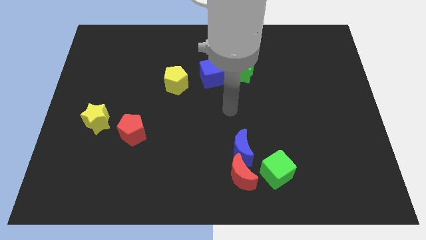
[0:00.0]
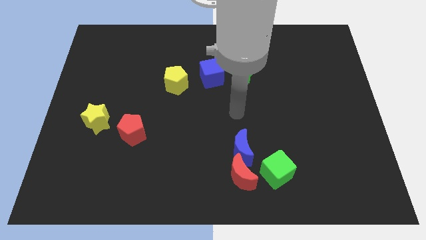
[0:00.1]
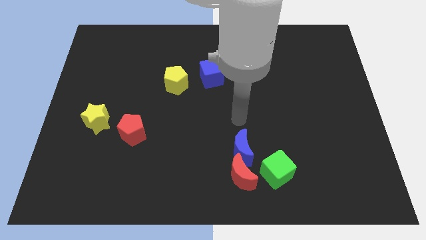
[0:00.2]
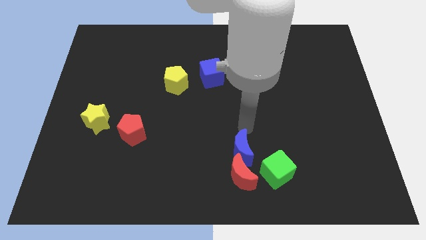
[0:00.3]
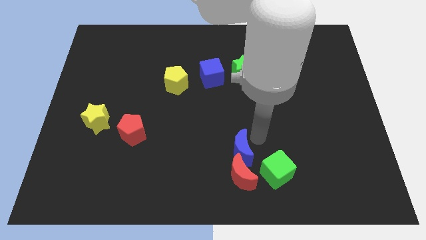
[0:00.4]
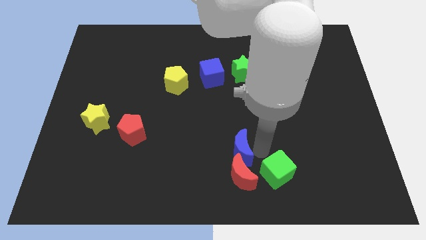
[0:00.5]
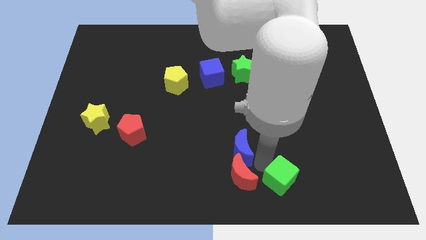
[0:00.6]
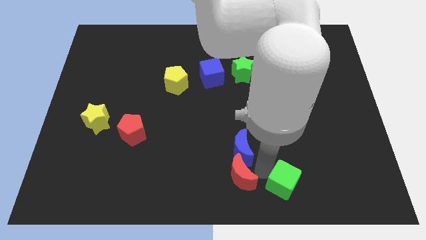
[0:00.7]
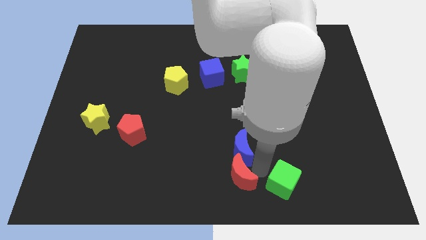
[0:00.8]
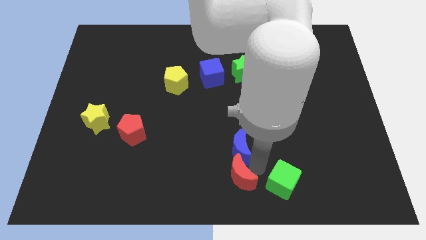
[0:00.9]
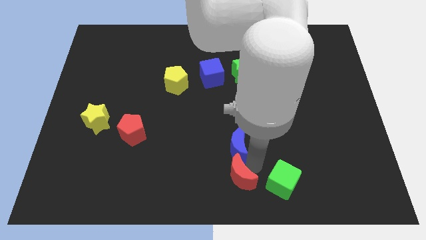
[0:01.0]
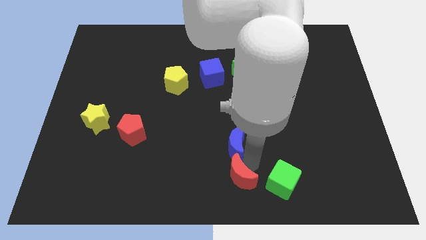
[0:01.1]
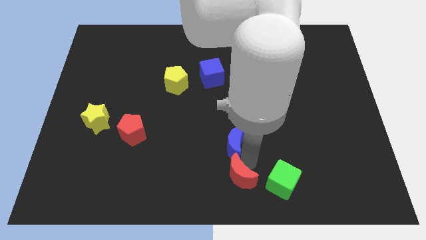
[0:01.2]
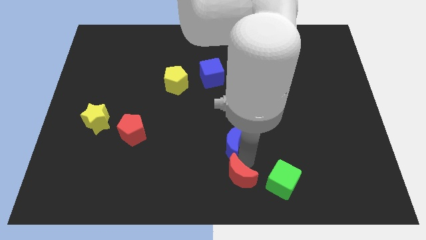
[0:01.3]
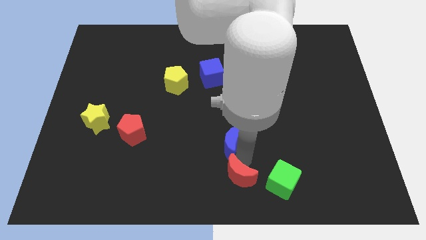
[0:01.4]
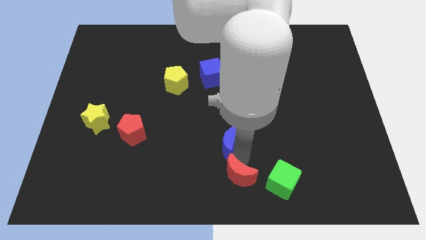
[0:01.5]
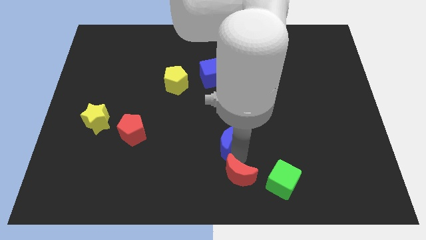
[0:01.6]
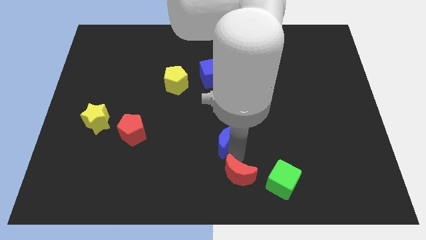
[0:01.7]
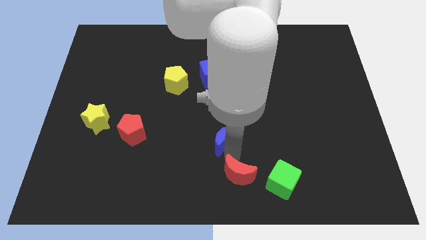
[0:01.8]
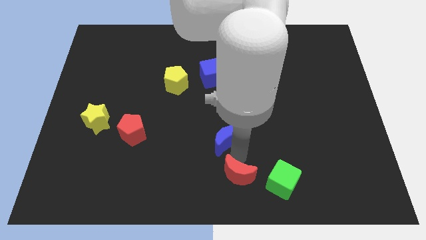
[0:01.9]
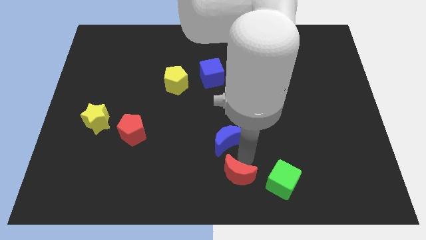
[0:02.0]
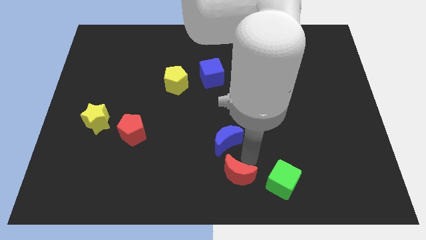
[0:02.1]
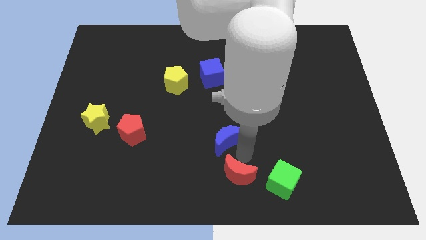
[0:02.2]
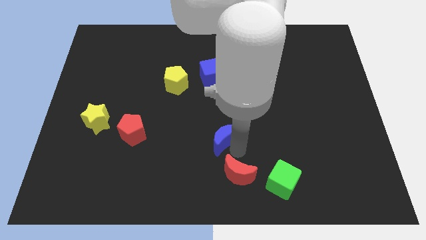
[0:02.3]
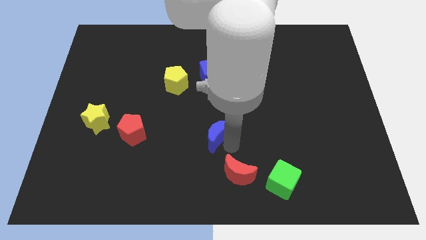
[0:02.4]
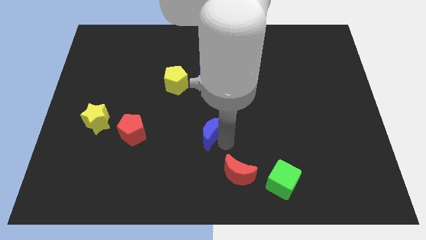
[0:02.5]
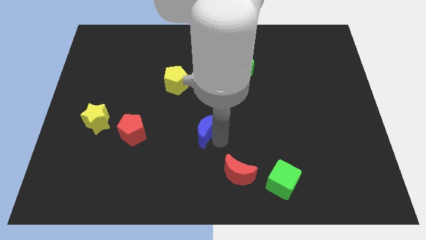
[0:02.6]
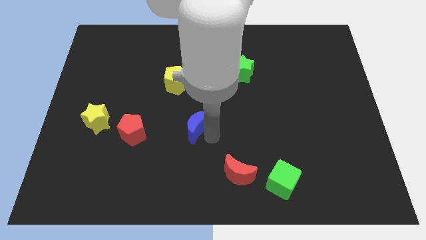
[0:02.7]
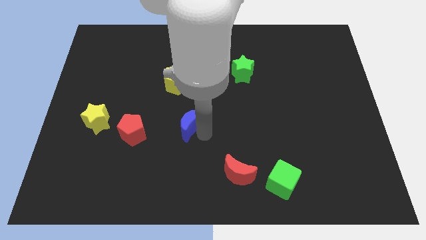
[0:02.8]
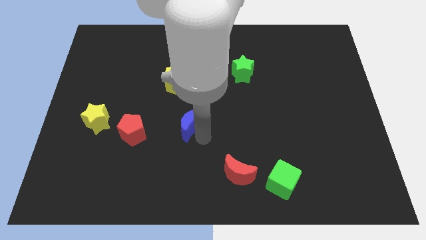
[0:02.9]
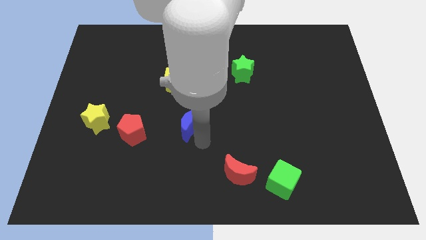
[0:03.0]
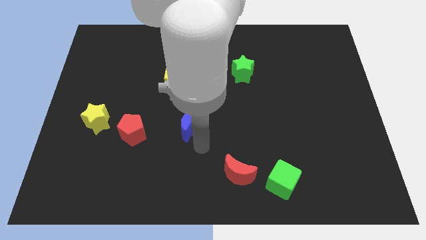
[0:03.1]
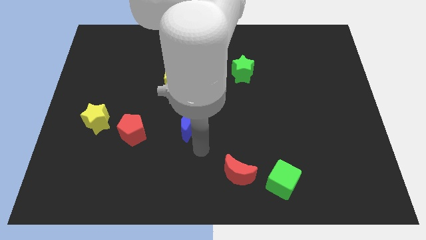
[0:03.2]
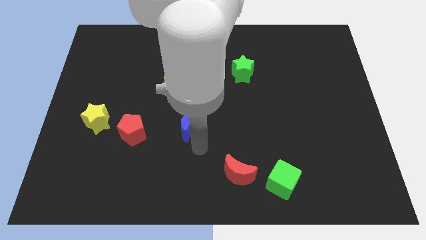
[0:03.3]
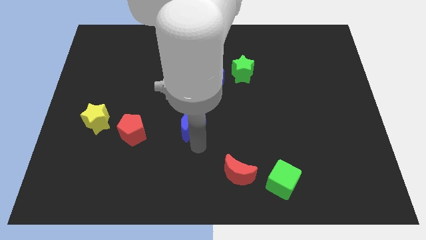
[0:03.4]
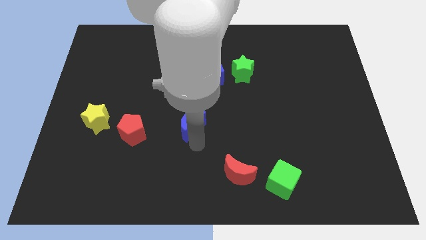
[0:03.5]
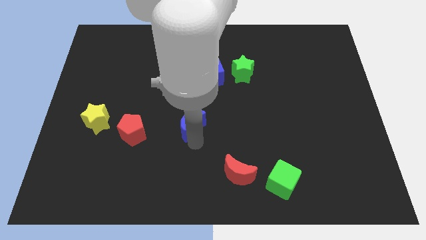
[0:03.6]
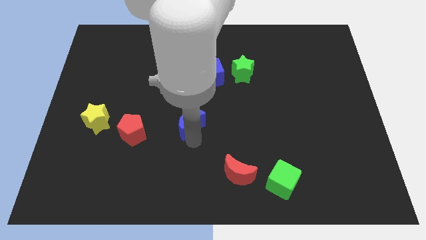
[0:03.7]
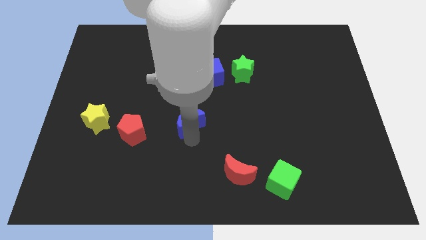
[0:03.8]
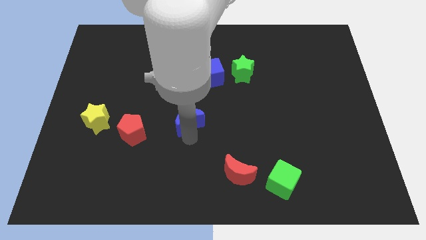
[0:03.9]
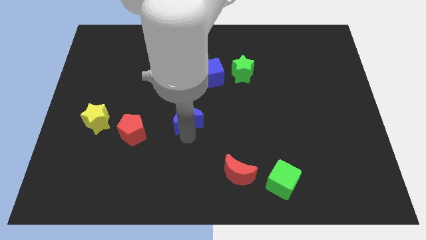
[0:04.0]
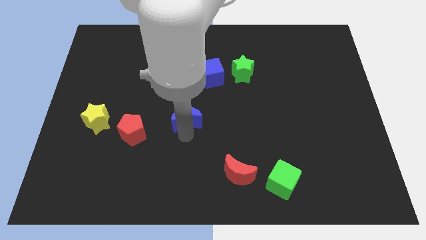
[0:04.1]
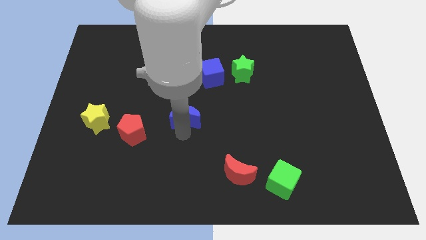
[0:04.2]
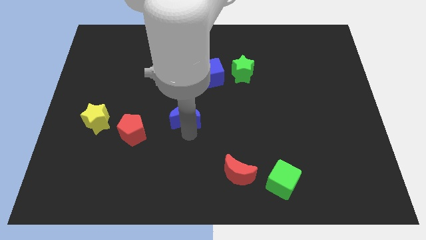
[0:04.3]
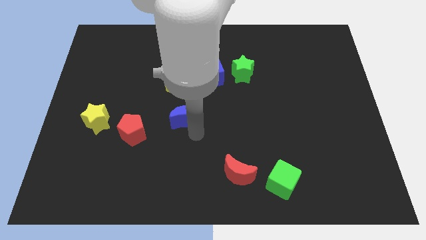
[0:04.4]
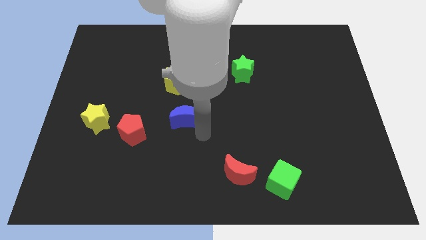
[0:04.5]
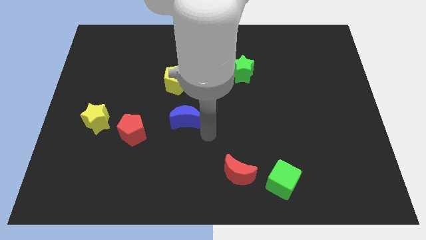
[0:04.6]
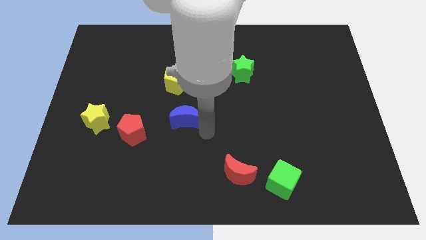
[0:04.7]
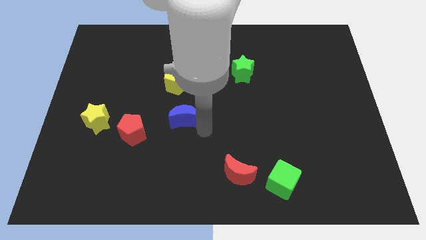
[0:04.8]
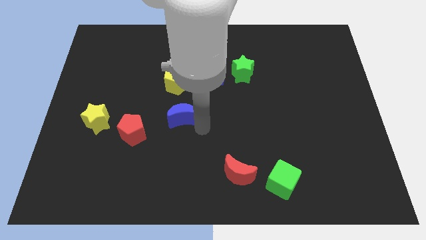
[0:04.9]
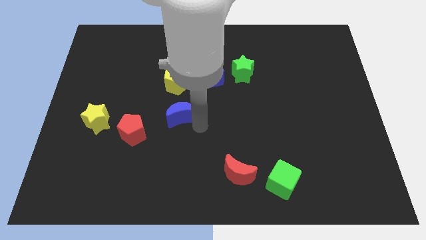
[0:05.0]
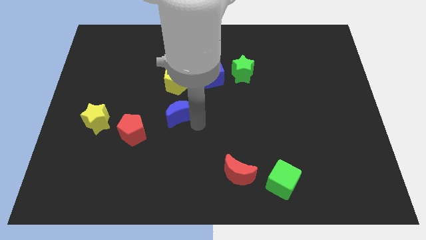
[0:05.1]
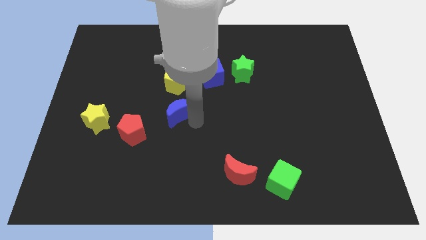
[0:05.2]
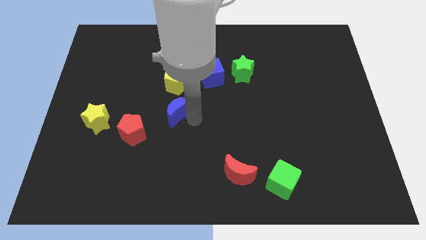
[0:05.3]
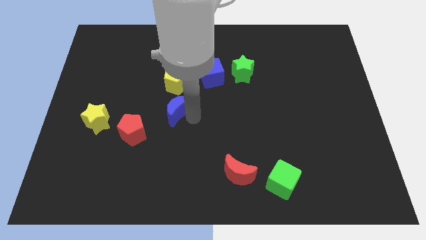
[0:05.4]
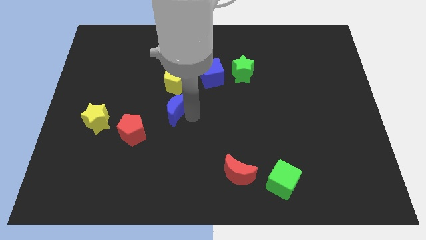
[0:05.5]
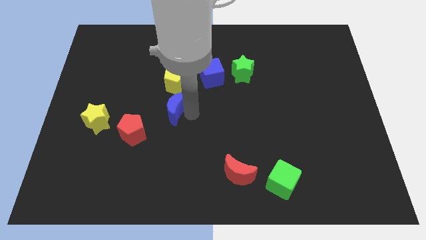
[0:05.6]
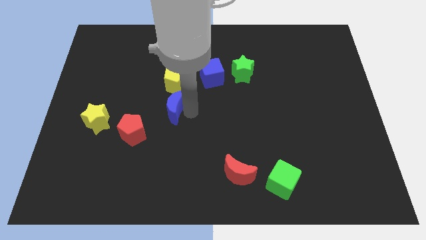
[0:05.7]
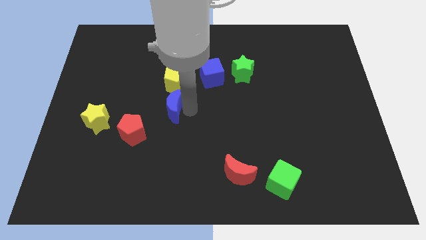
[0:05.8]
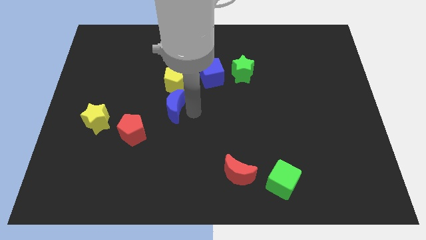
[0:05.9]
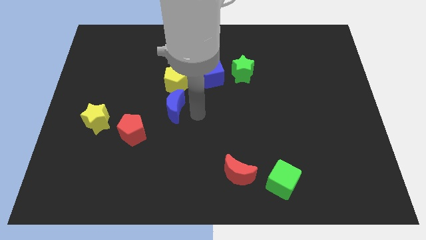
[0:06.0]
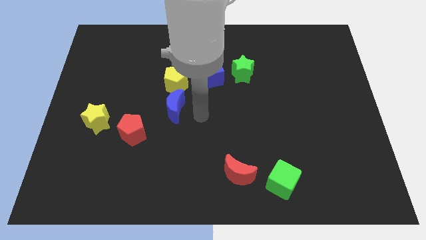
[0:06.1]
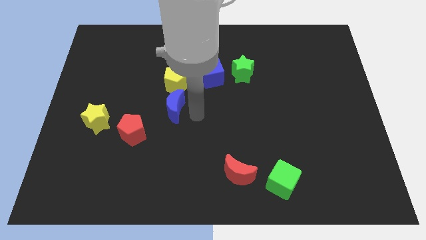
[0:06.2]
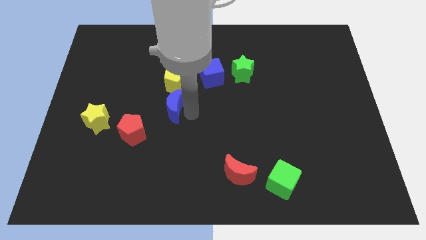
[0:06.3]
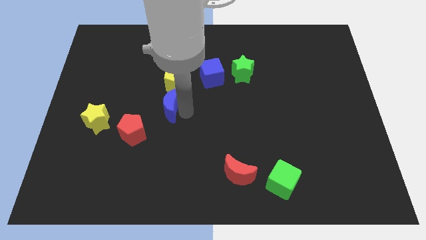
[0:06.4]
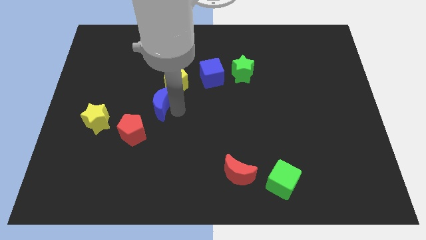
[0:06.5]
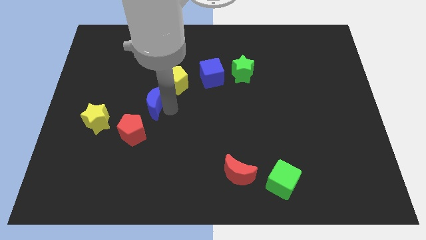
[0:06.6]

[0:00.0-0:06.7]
move the blue moon to the top side of the red pentagon

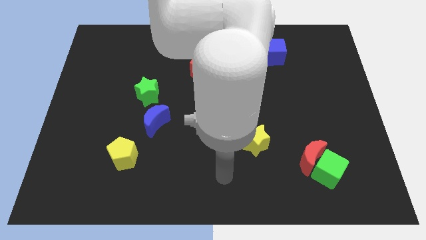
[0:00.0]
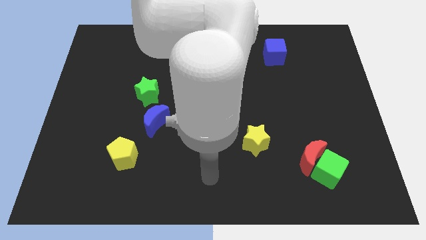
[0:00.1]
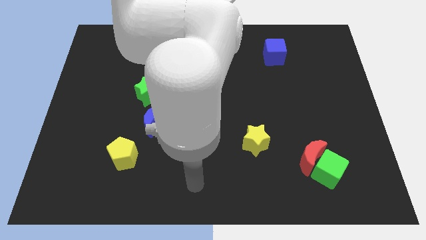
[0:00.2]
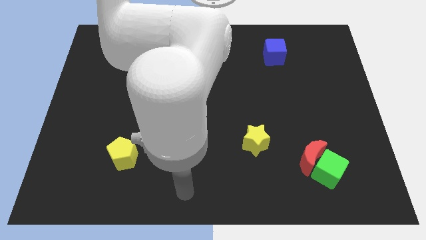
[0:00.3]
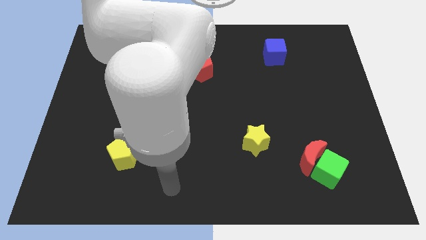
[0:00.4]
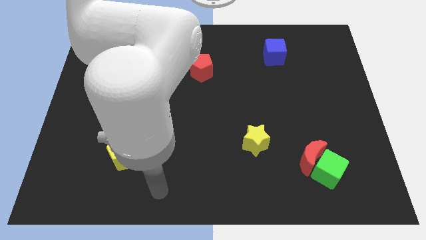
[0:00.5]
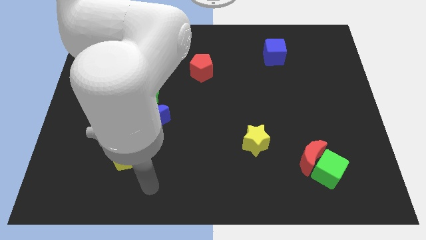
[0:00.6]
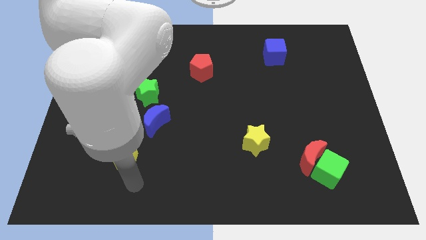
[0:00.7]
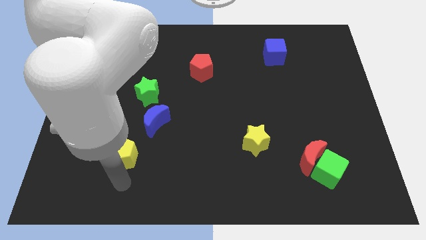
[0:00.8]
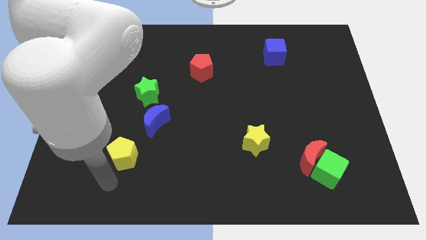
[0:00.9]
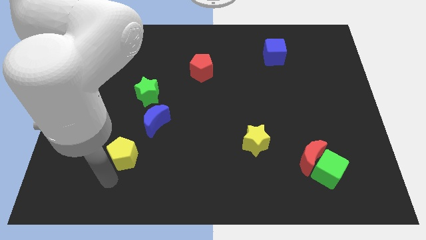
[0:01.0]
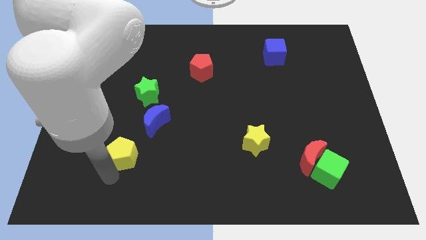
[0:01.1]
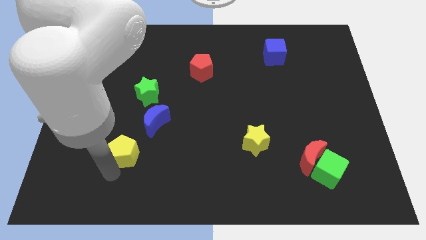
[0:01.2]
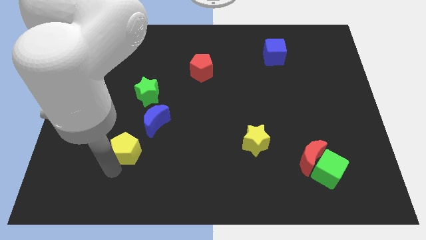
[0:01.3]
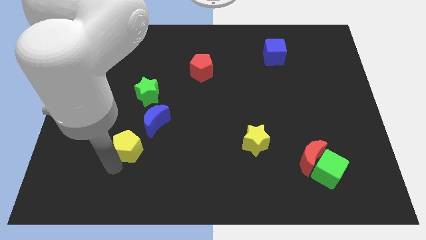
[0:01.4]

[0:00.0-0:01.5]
slide the yellow pentagon to the bottom of the green star

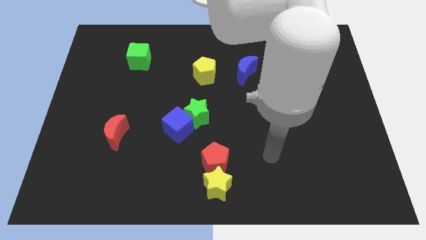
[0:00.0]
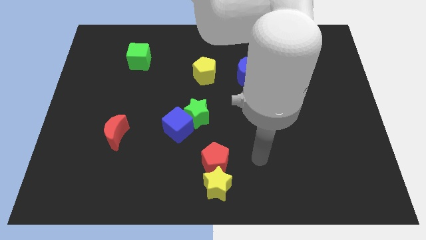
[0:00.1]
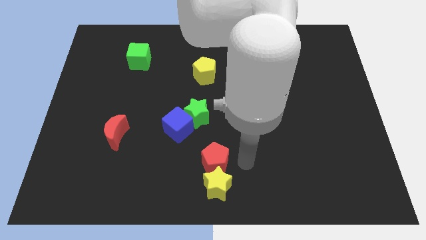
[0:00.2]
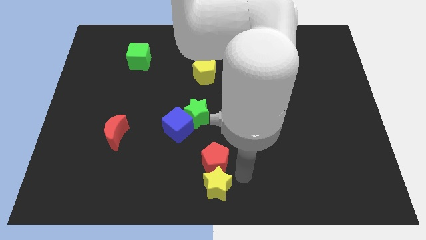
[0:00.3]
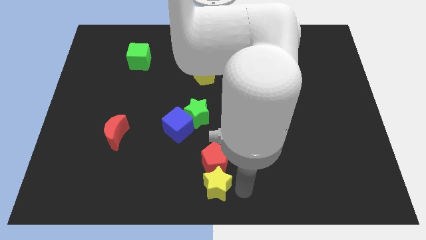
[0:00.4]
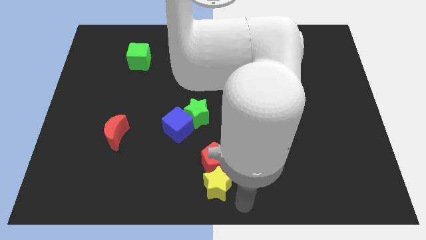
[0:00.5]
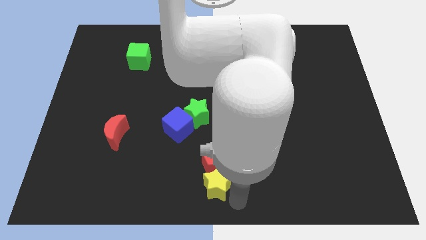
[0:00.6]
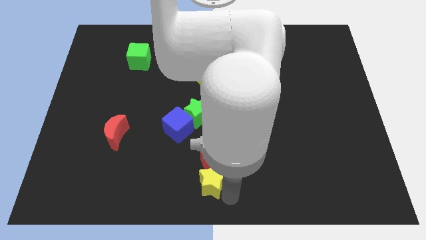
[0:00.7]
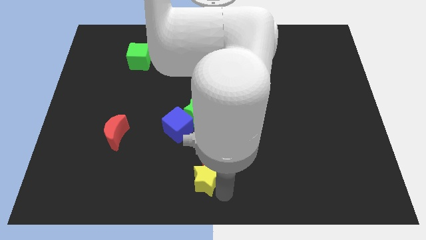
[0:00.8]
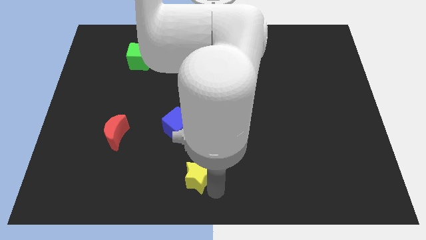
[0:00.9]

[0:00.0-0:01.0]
slide the yellow star to the bottom of the green star
